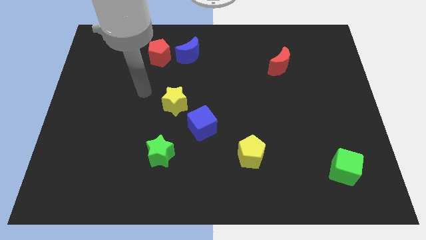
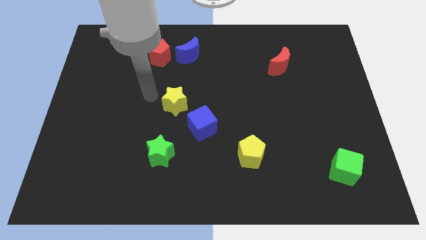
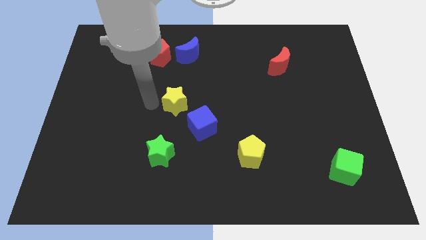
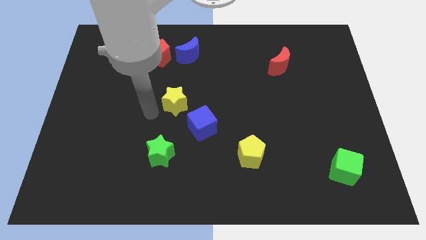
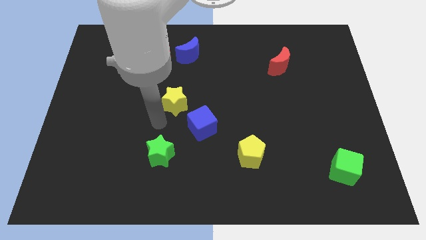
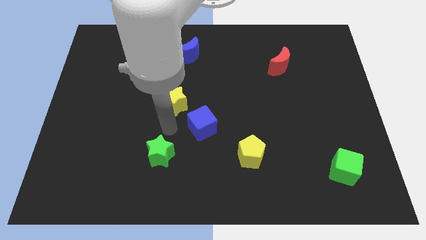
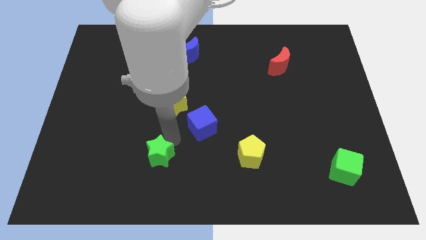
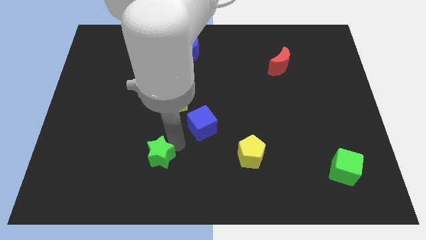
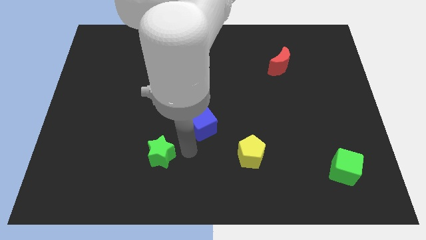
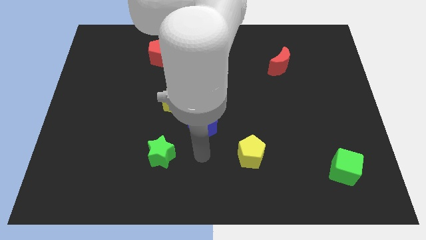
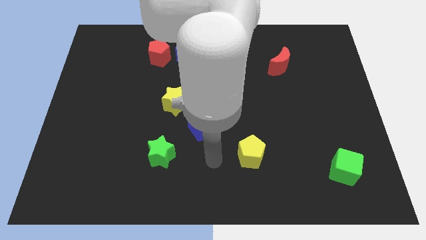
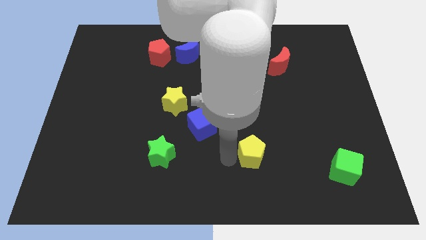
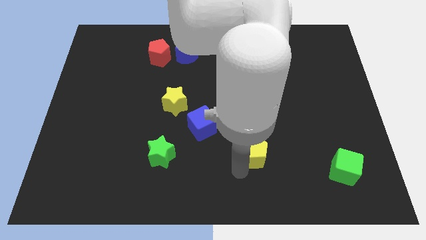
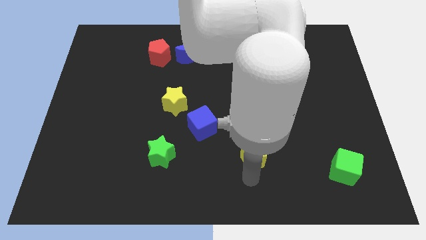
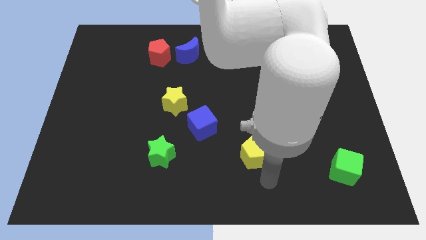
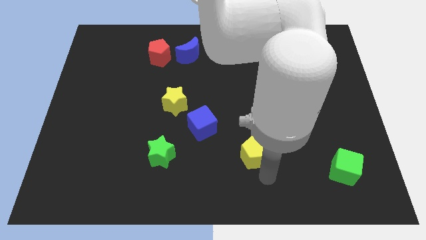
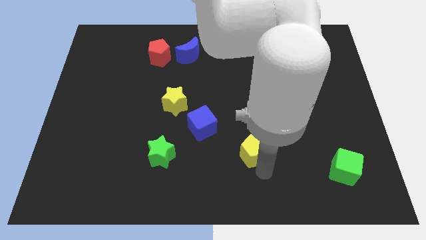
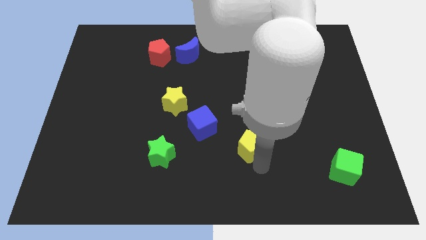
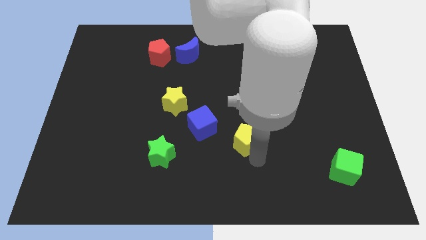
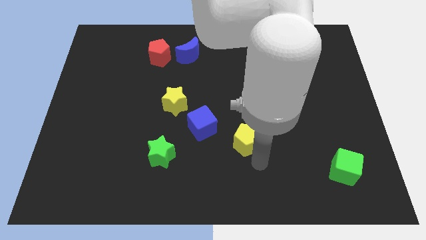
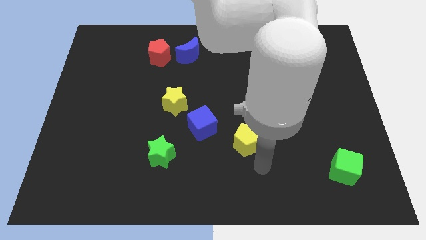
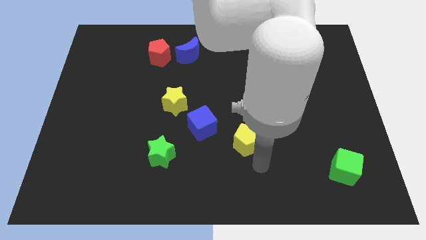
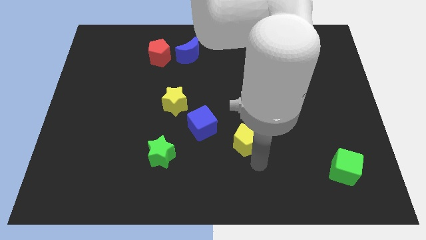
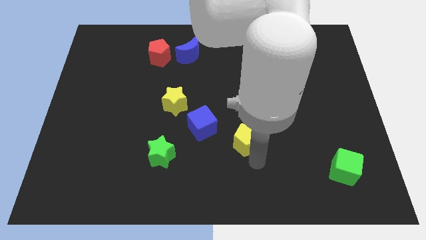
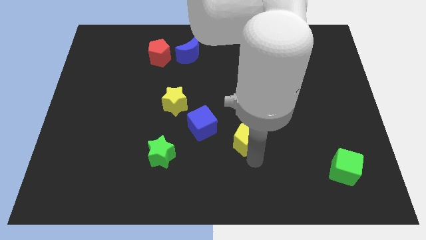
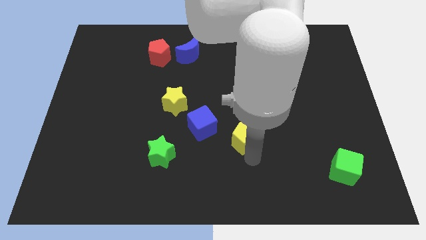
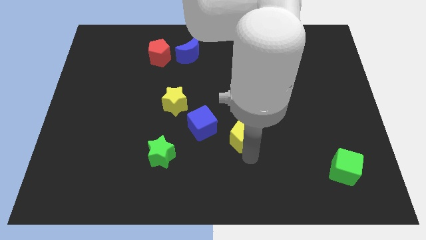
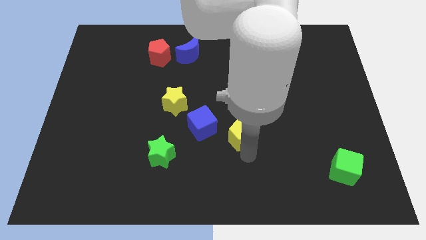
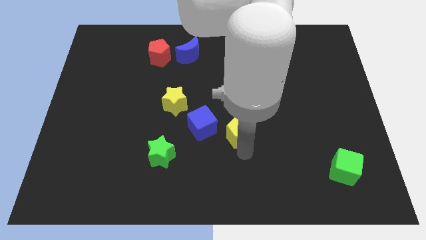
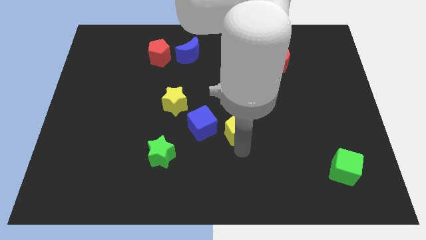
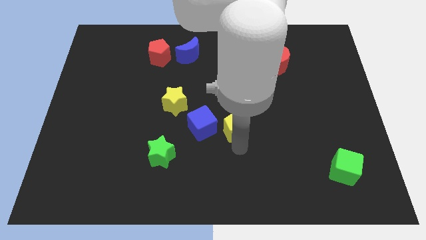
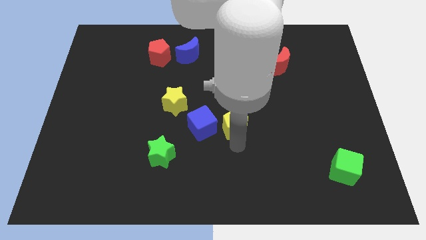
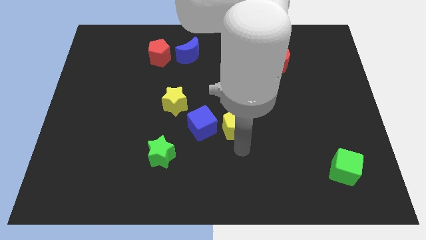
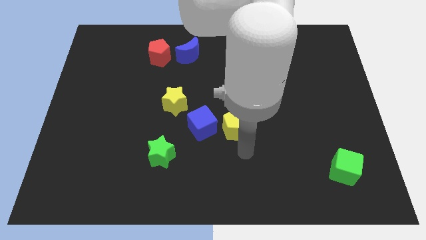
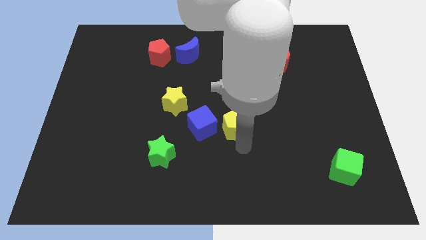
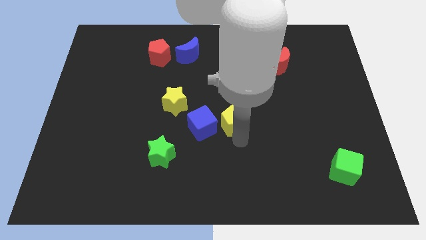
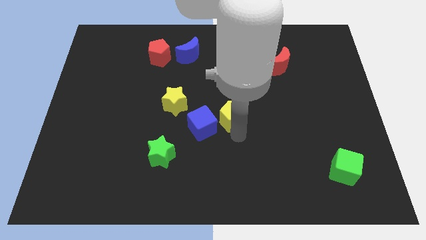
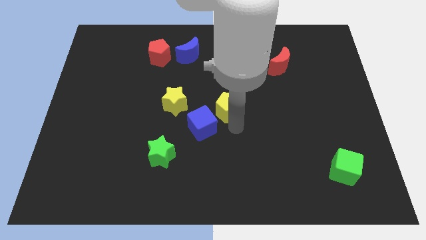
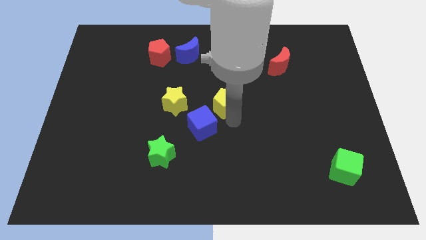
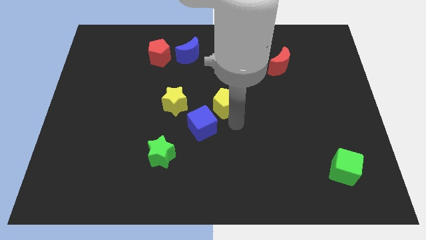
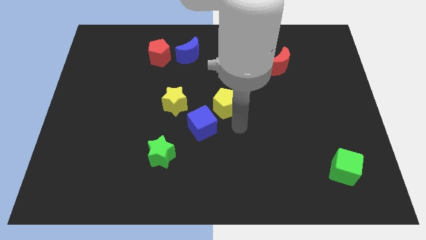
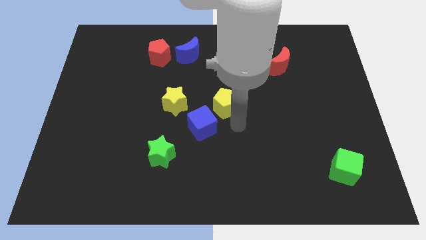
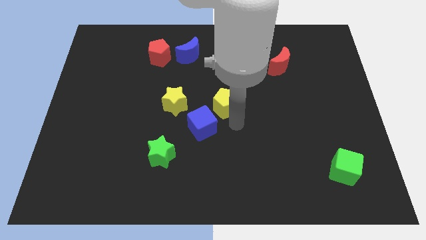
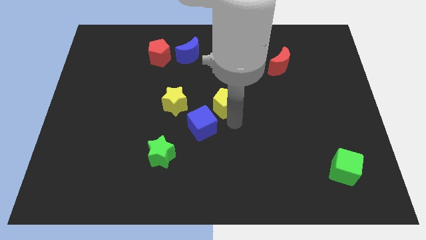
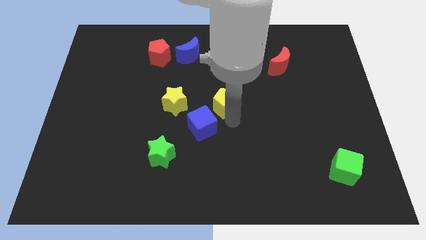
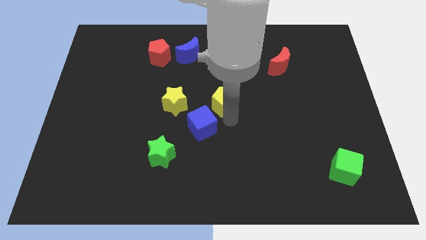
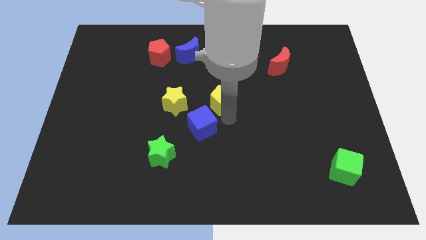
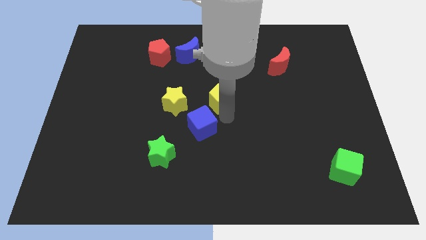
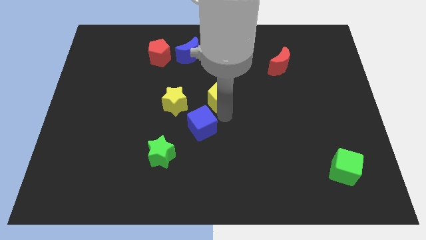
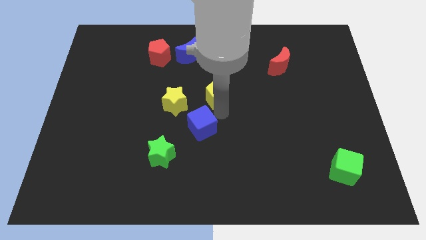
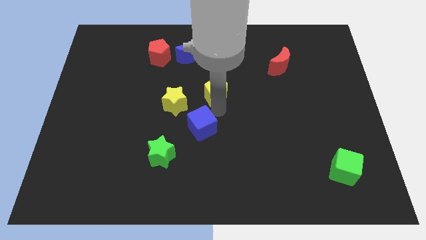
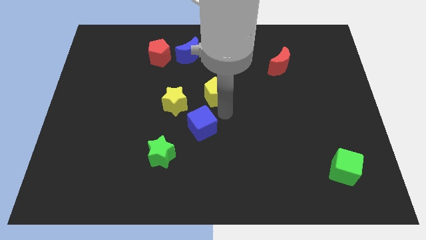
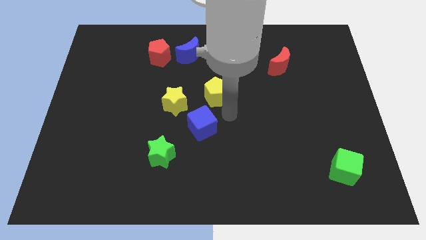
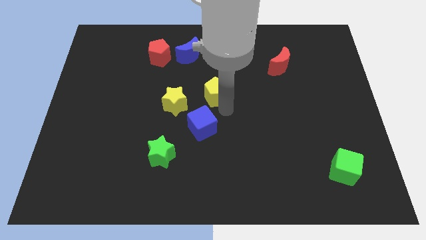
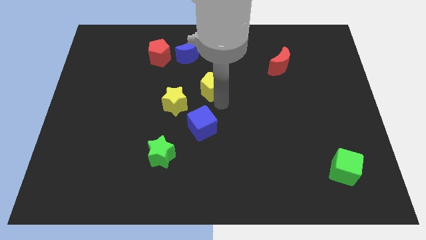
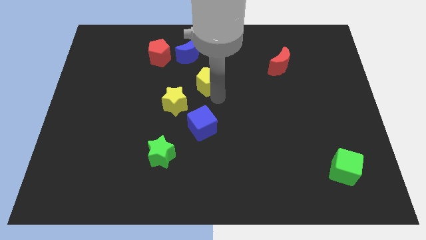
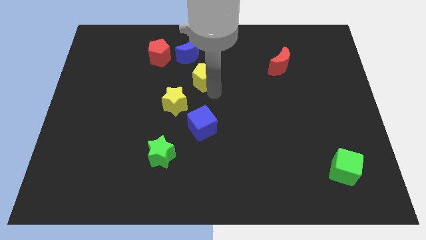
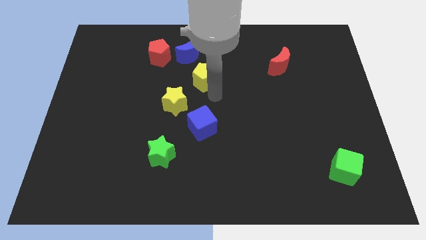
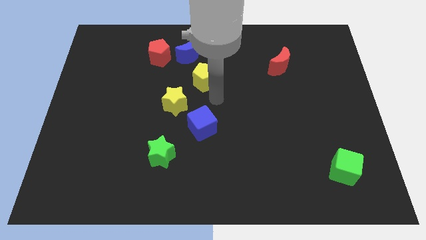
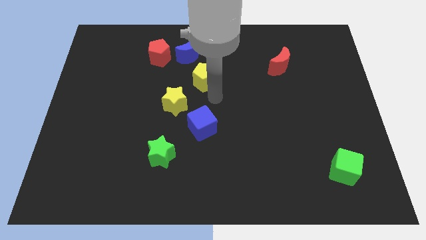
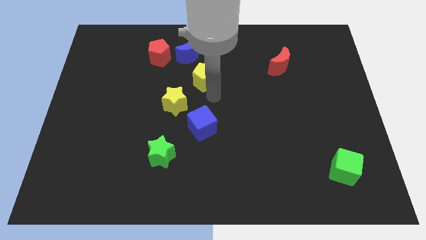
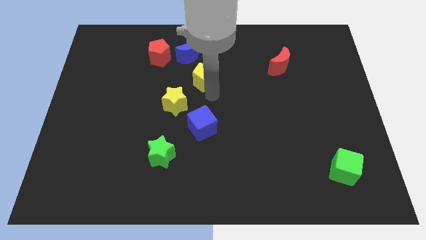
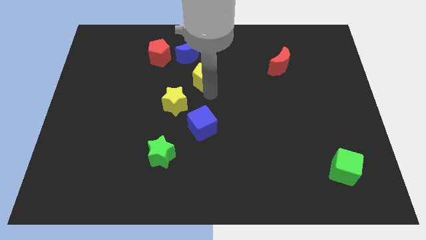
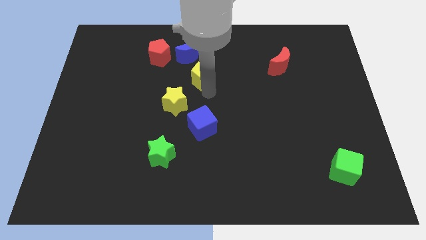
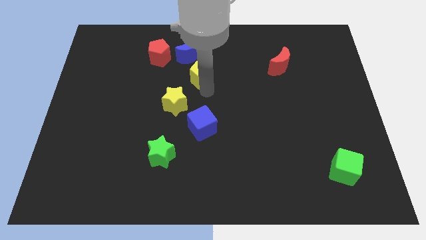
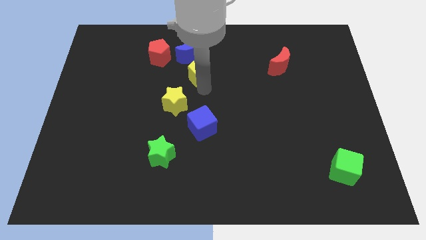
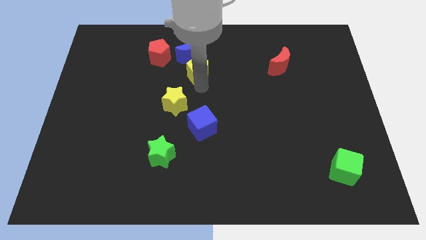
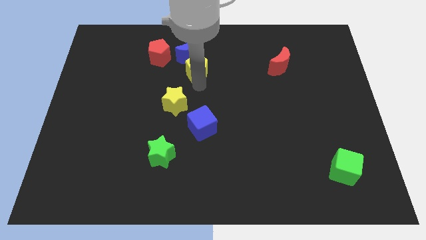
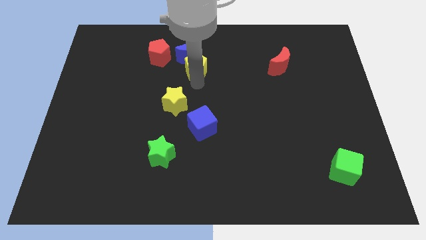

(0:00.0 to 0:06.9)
put the yellow pentagon to the blue moon

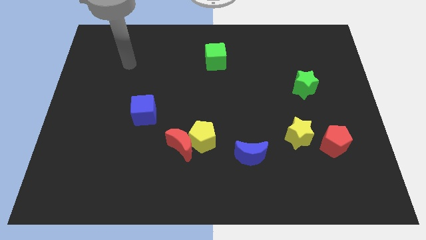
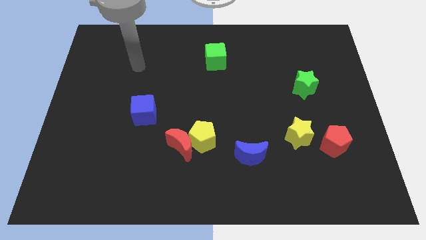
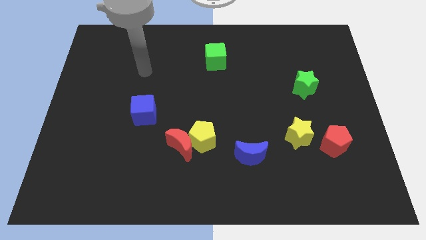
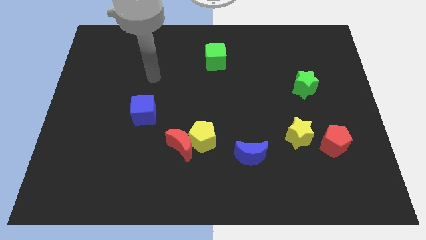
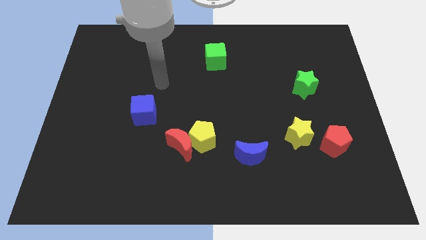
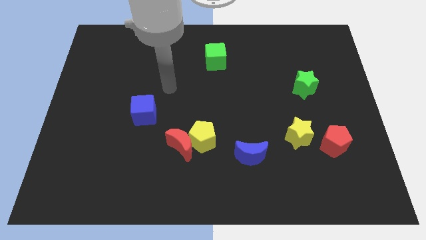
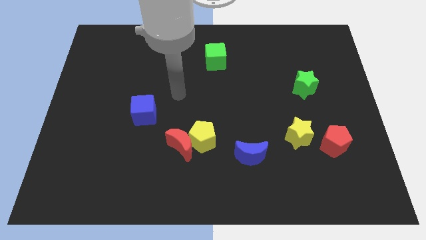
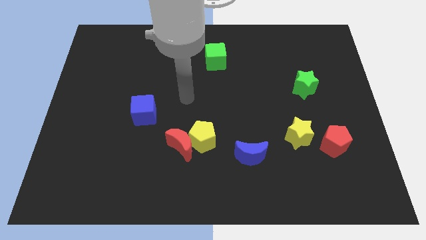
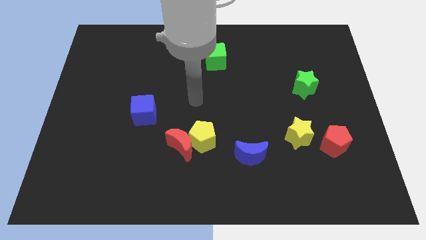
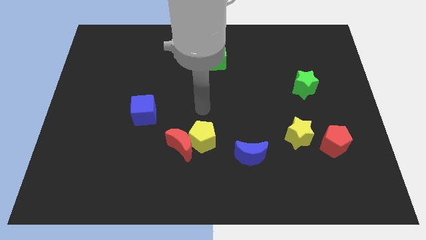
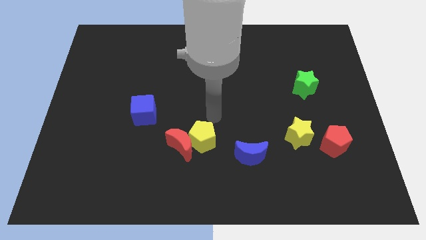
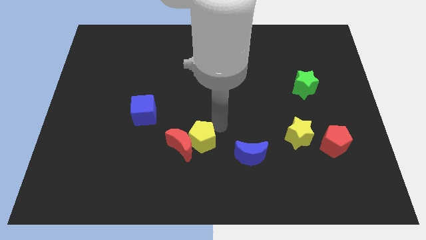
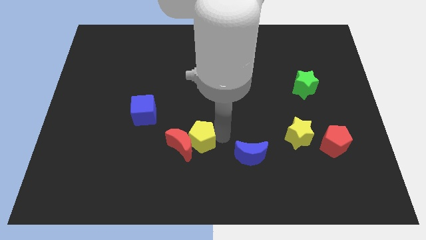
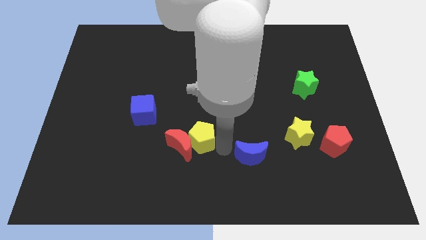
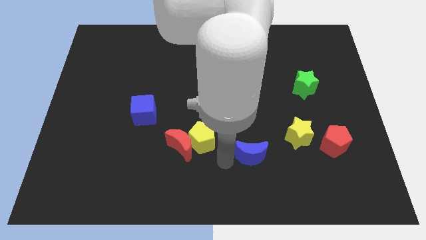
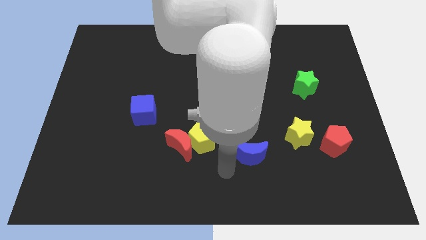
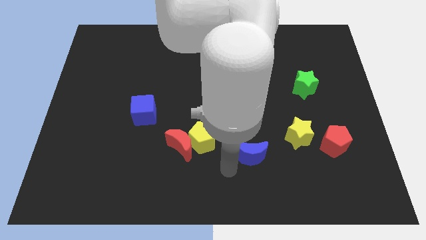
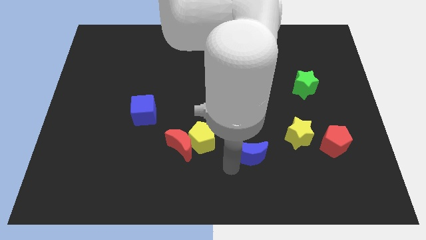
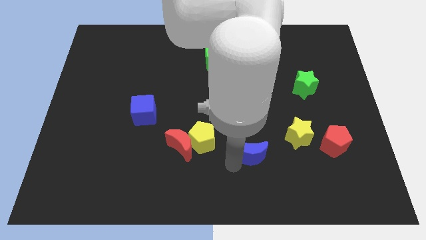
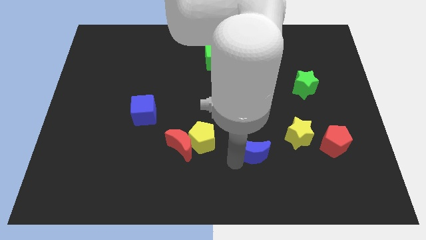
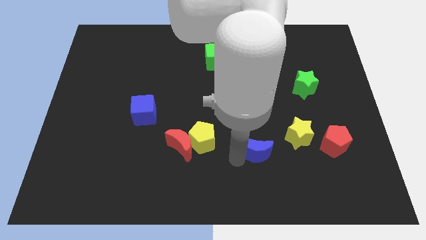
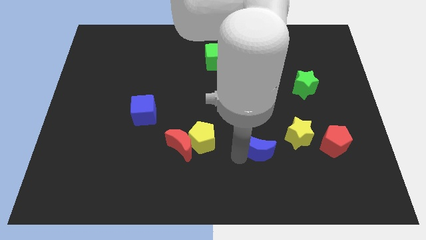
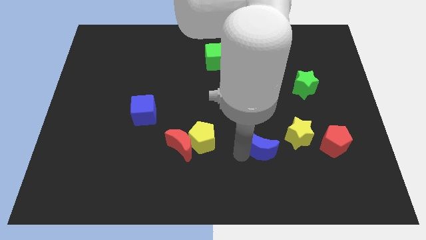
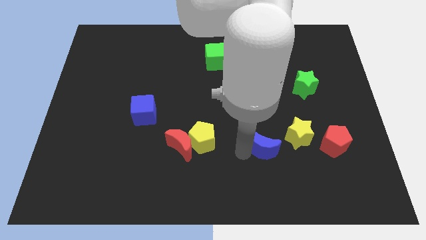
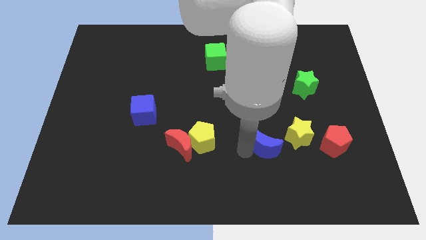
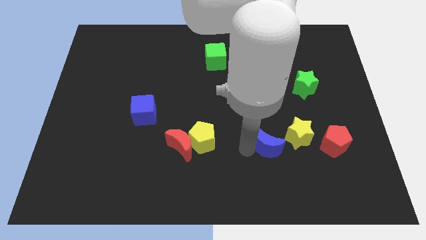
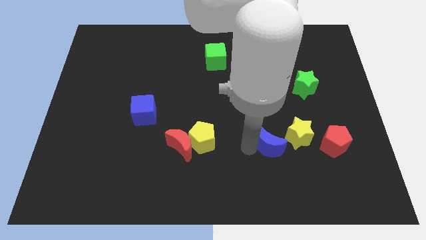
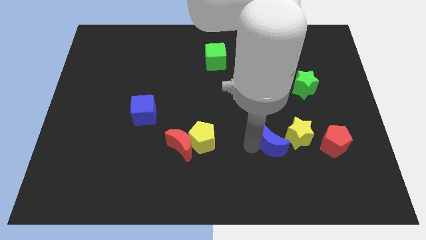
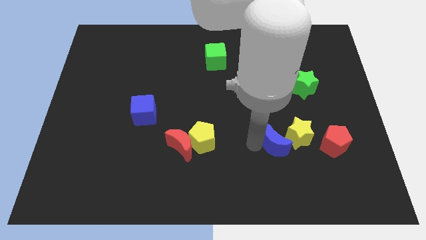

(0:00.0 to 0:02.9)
move the blue moon close to the yellow star
